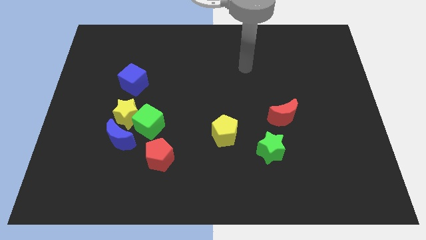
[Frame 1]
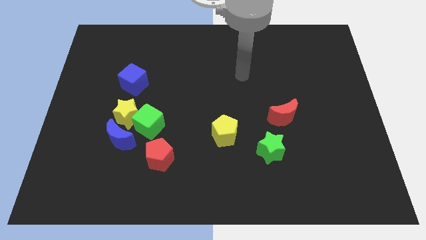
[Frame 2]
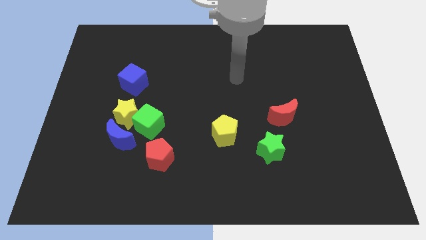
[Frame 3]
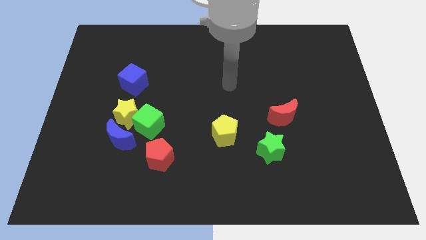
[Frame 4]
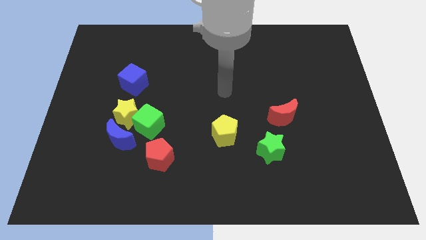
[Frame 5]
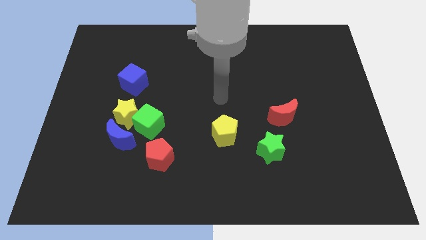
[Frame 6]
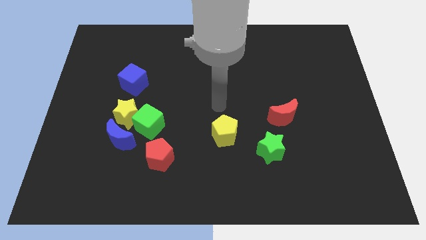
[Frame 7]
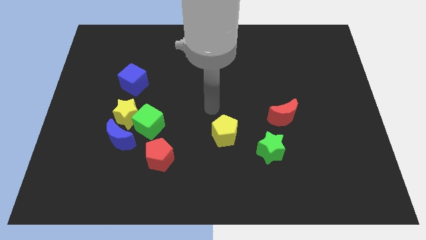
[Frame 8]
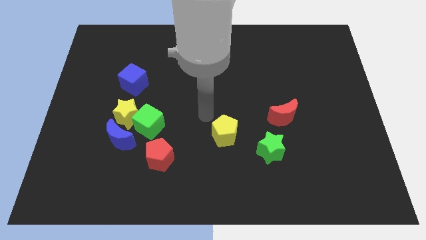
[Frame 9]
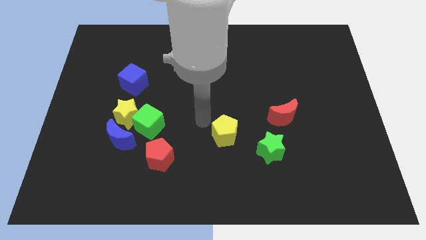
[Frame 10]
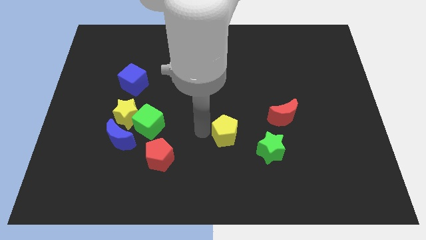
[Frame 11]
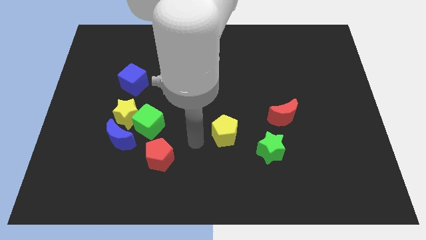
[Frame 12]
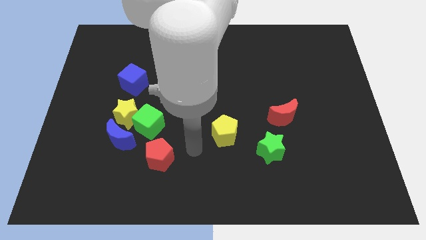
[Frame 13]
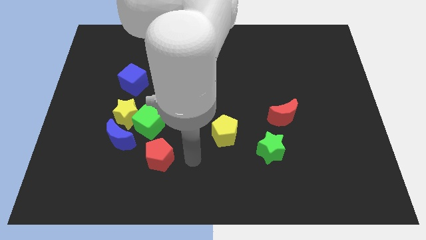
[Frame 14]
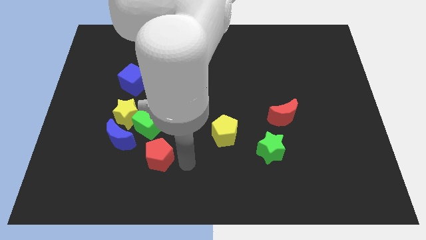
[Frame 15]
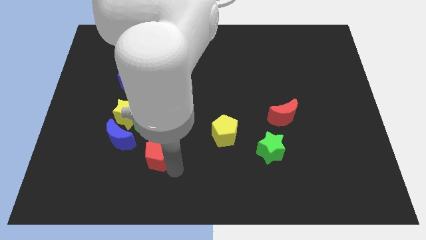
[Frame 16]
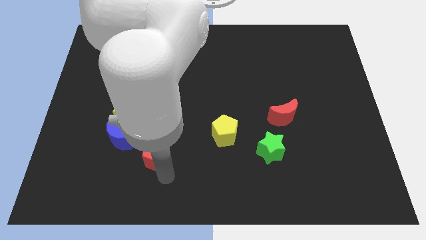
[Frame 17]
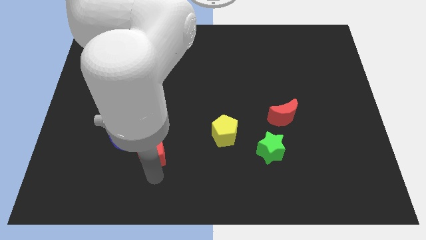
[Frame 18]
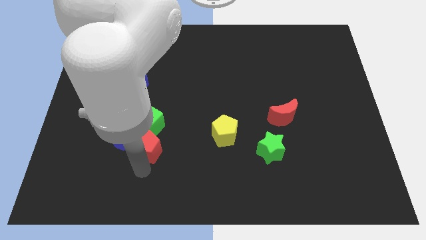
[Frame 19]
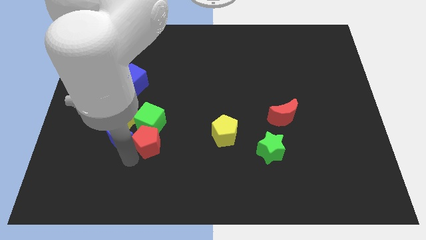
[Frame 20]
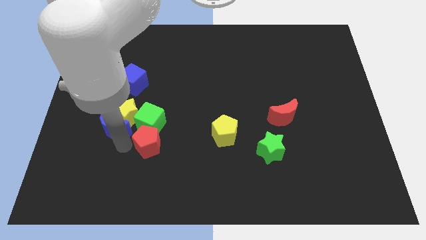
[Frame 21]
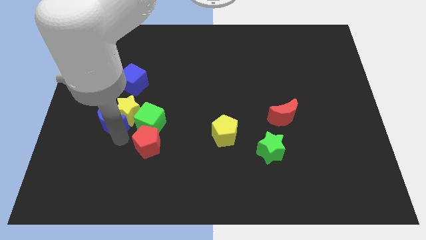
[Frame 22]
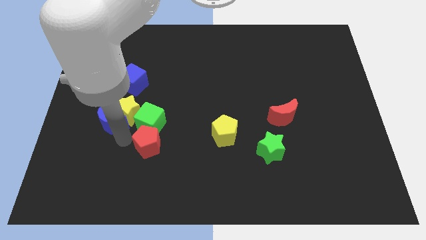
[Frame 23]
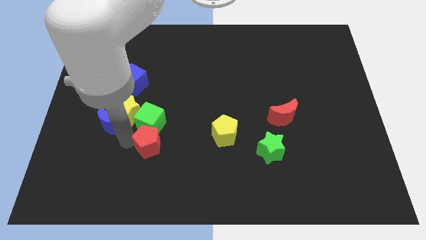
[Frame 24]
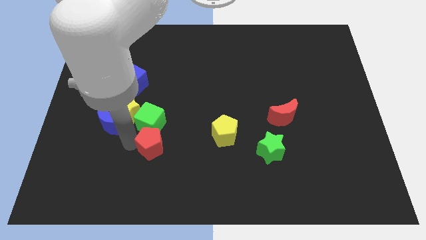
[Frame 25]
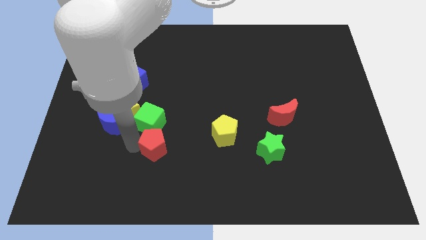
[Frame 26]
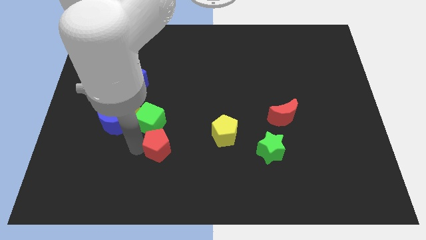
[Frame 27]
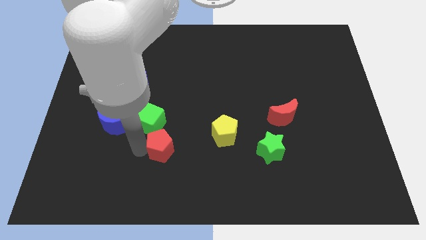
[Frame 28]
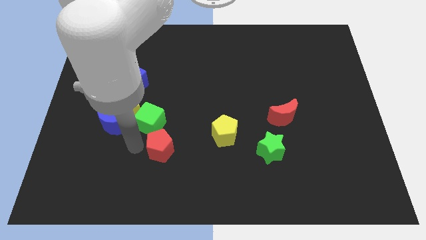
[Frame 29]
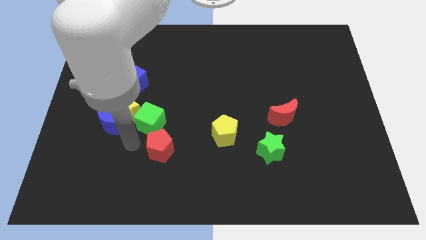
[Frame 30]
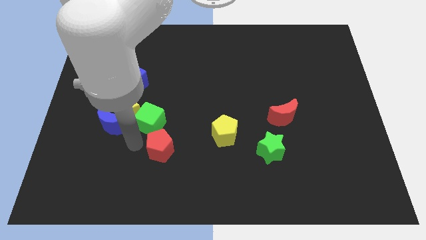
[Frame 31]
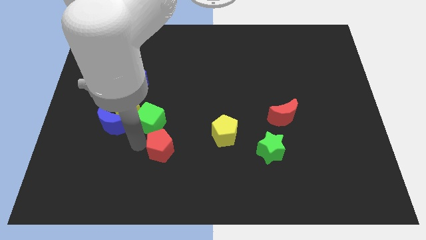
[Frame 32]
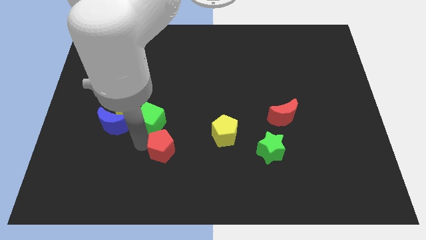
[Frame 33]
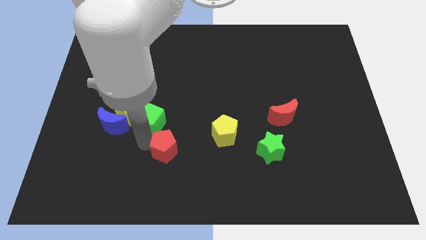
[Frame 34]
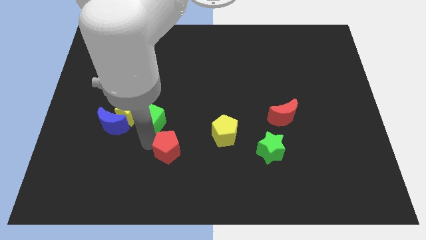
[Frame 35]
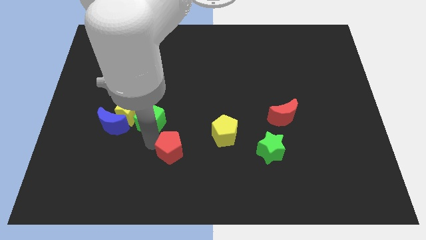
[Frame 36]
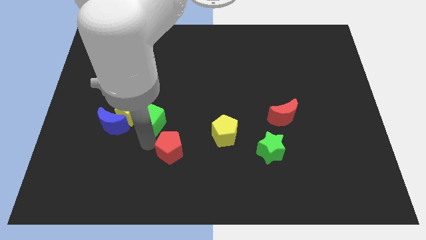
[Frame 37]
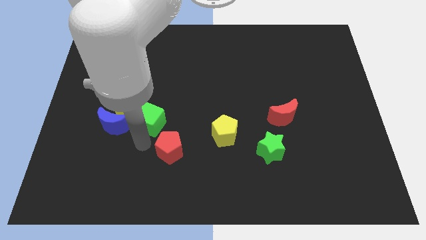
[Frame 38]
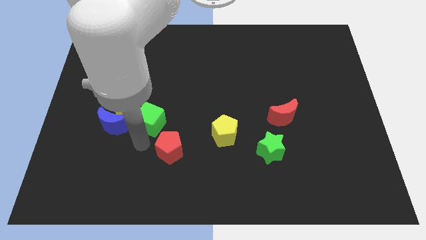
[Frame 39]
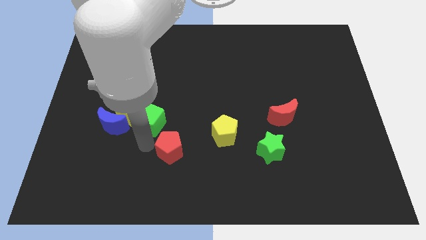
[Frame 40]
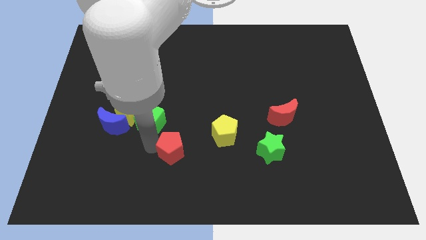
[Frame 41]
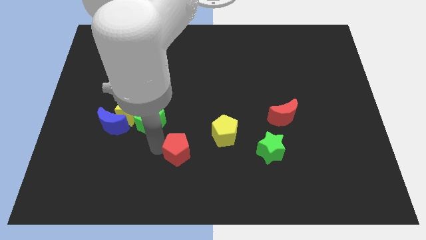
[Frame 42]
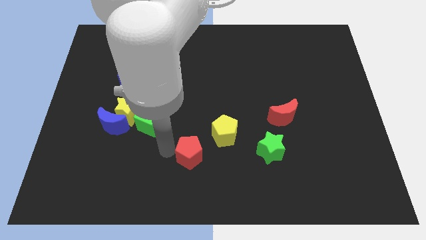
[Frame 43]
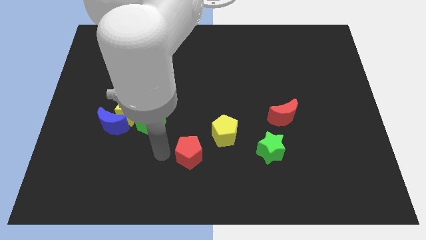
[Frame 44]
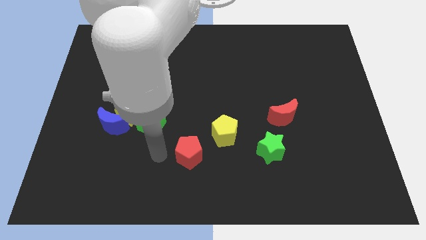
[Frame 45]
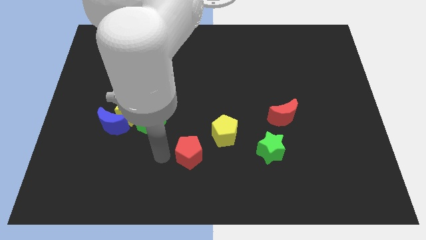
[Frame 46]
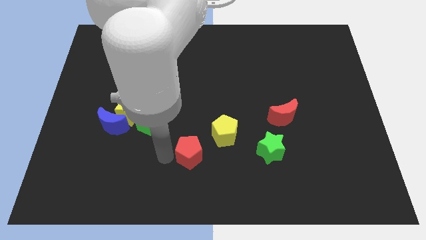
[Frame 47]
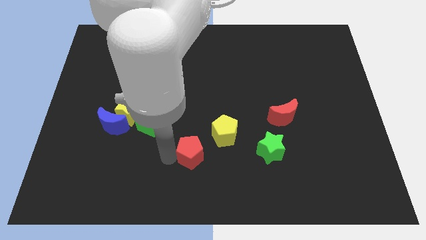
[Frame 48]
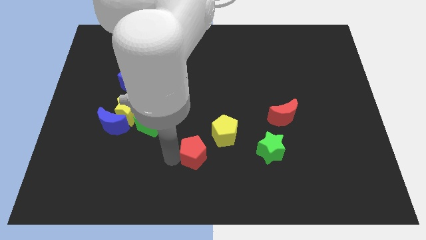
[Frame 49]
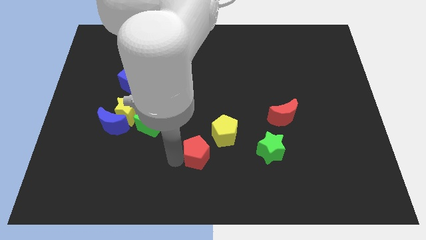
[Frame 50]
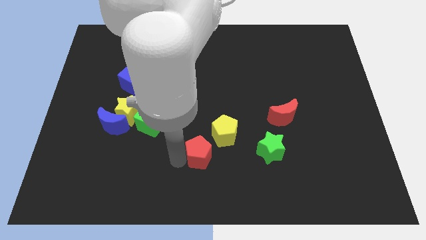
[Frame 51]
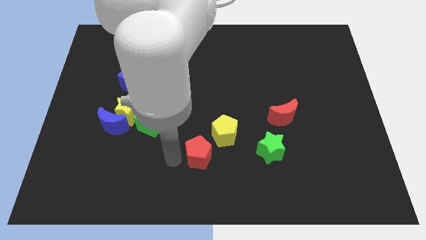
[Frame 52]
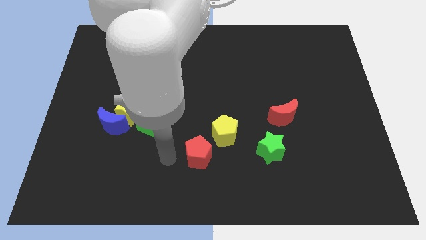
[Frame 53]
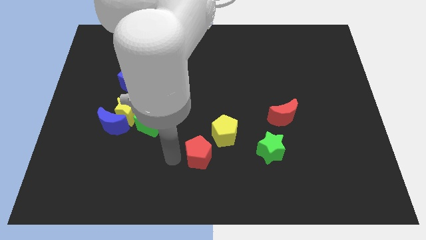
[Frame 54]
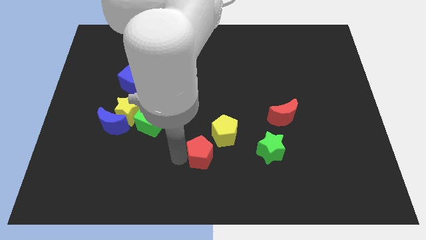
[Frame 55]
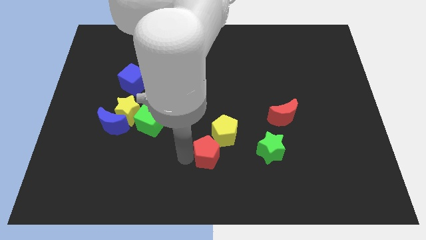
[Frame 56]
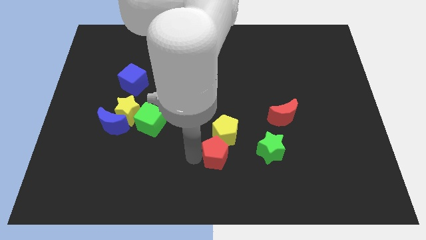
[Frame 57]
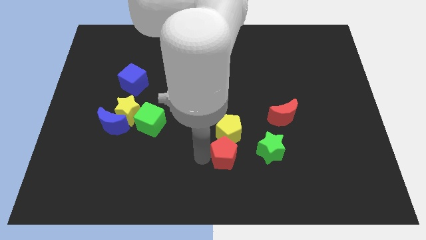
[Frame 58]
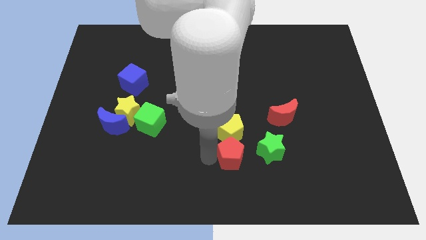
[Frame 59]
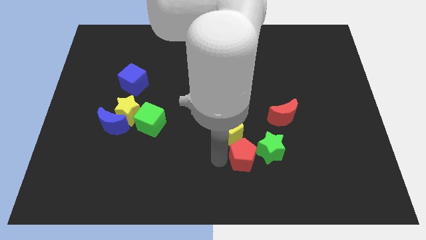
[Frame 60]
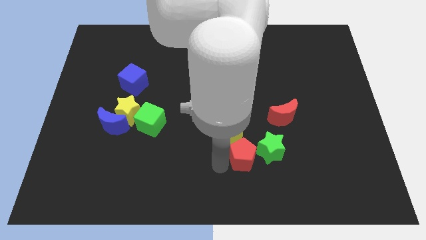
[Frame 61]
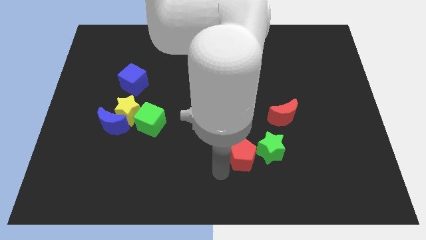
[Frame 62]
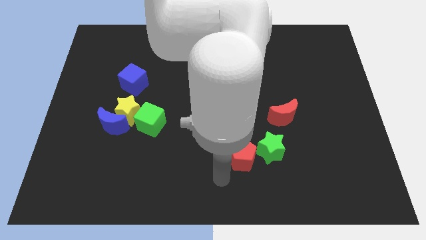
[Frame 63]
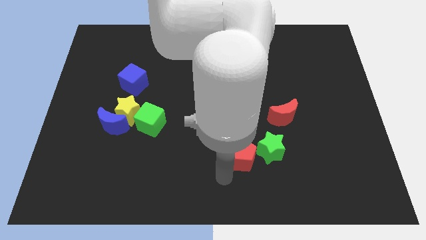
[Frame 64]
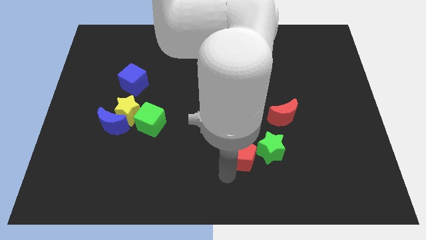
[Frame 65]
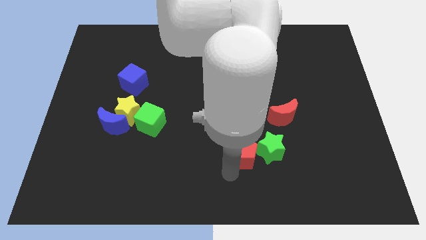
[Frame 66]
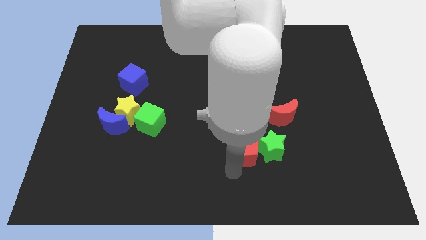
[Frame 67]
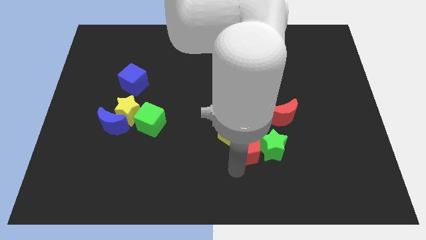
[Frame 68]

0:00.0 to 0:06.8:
push the red pentagon diagonally down and to the left of the red moon

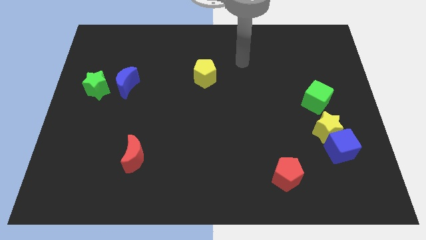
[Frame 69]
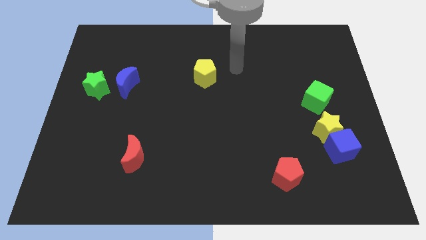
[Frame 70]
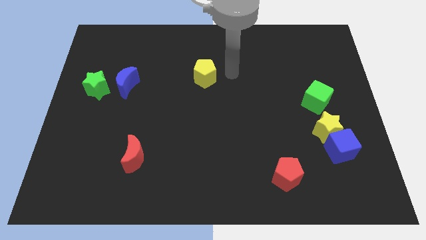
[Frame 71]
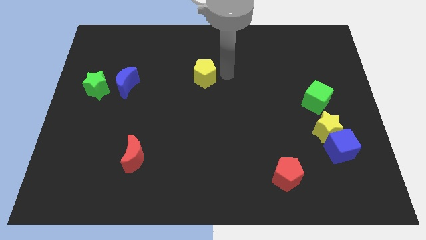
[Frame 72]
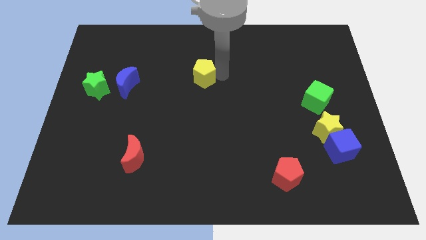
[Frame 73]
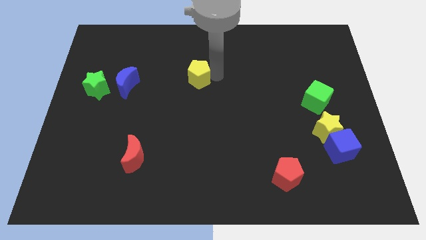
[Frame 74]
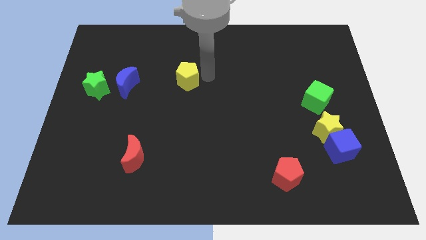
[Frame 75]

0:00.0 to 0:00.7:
slide the yellow pentagon just right of the blue moon
